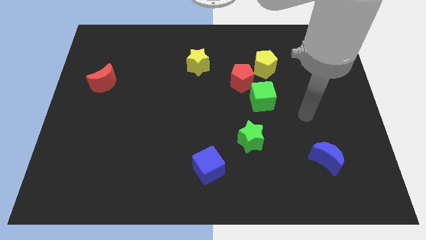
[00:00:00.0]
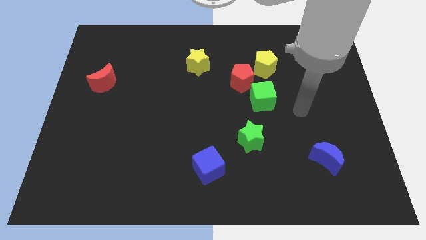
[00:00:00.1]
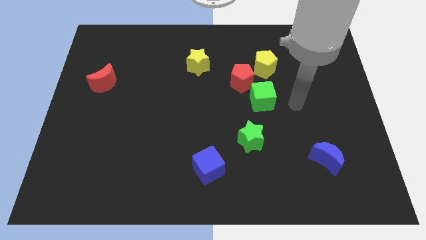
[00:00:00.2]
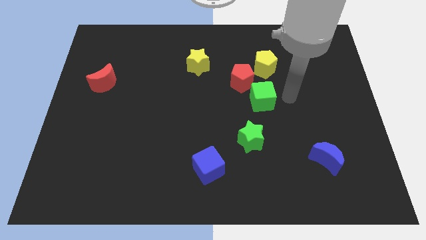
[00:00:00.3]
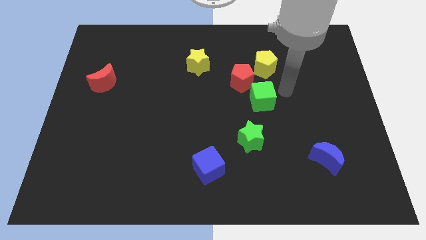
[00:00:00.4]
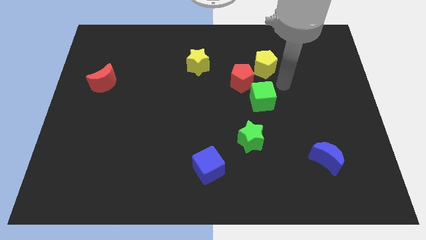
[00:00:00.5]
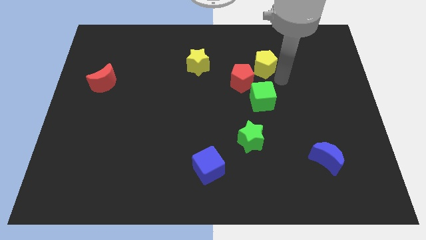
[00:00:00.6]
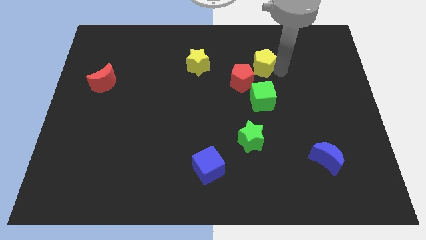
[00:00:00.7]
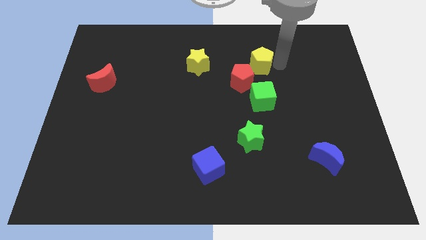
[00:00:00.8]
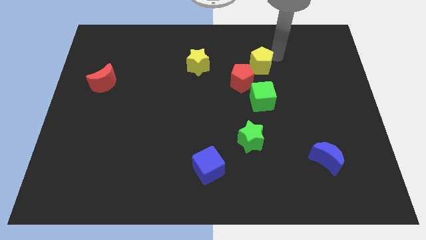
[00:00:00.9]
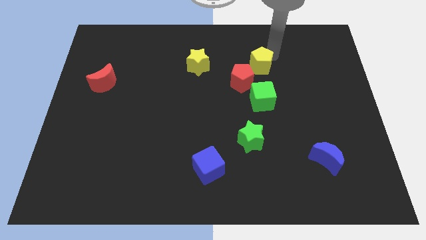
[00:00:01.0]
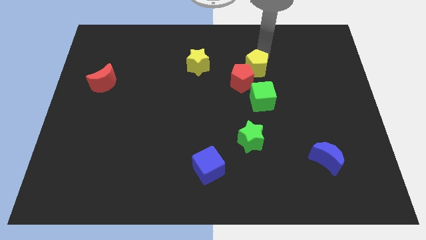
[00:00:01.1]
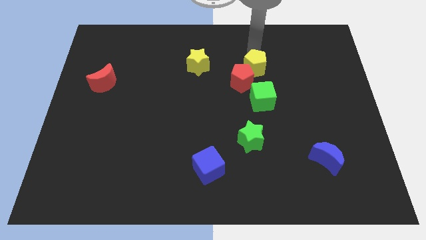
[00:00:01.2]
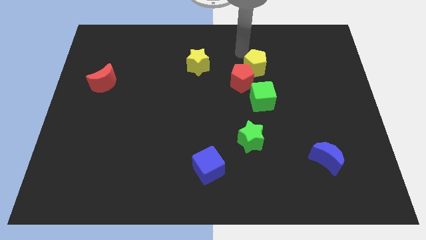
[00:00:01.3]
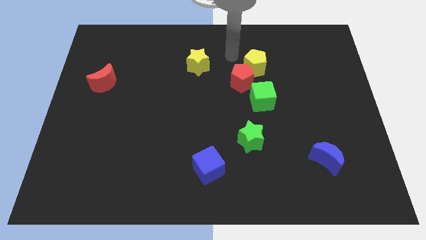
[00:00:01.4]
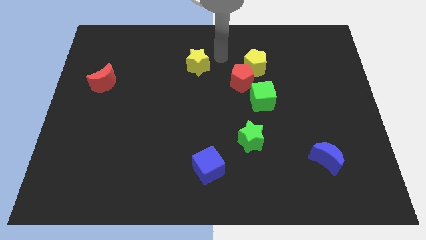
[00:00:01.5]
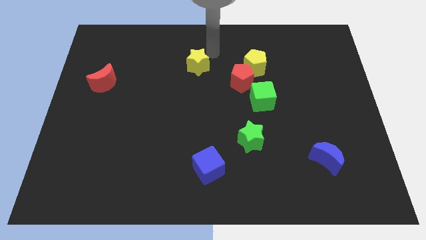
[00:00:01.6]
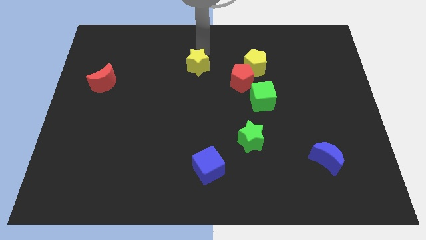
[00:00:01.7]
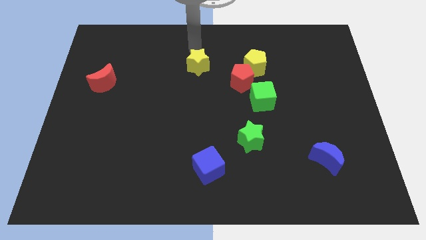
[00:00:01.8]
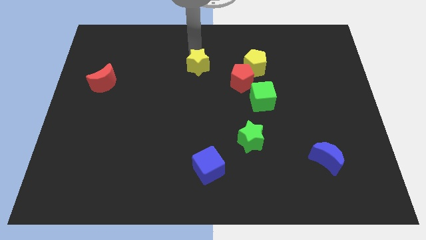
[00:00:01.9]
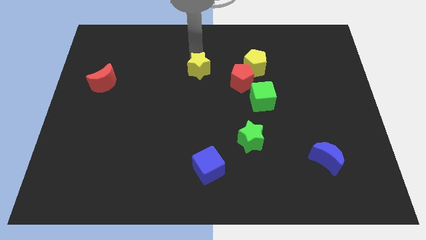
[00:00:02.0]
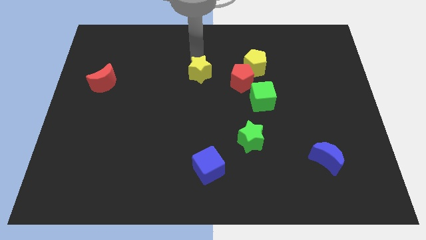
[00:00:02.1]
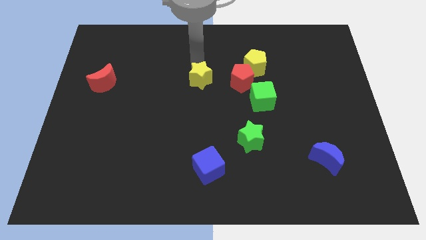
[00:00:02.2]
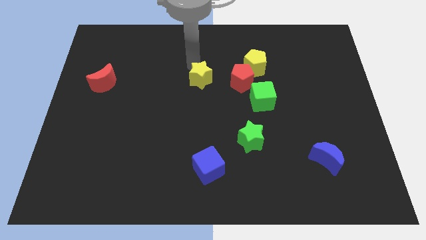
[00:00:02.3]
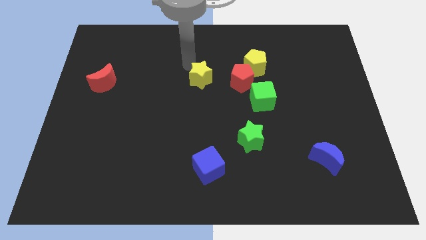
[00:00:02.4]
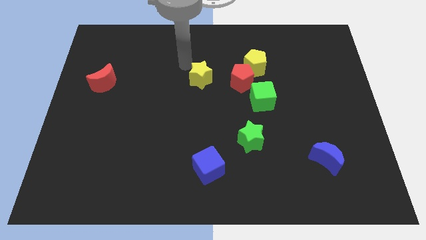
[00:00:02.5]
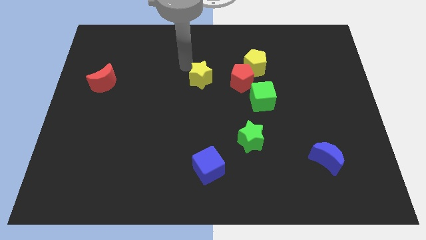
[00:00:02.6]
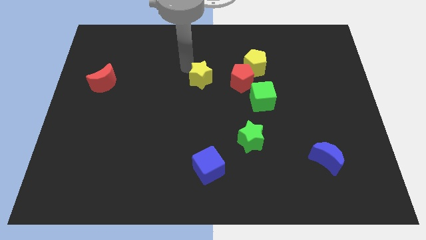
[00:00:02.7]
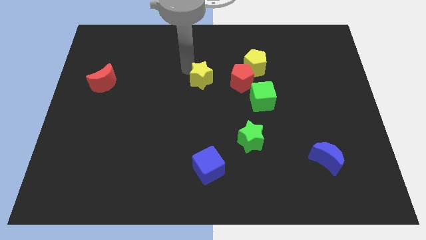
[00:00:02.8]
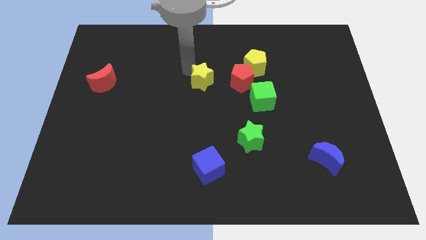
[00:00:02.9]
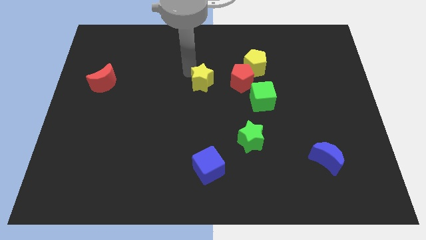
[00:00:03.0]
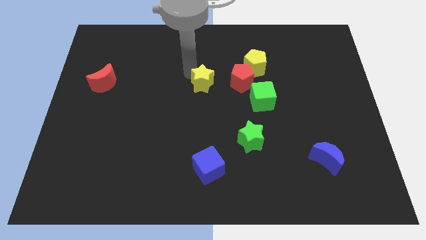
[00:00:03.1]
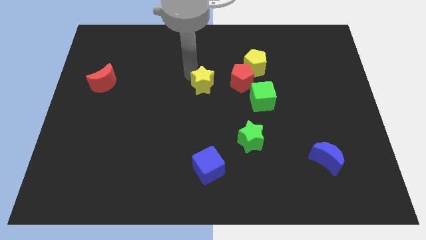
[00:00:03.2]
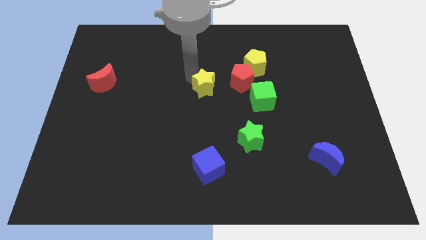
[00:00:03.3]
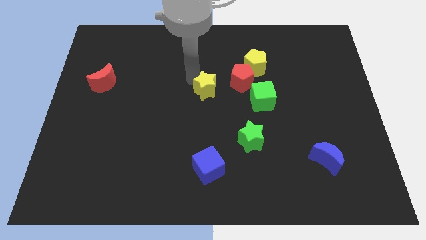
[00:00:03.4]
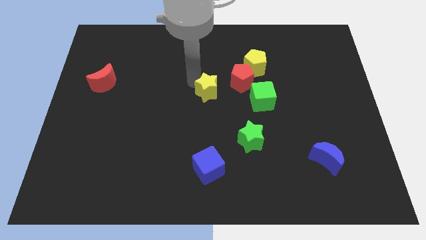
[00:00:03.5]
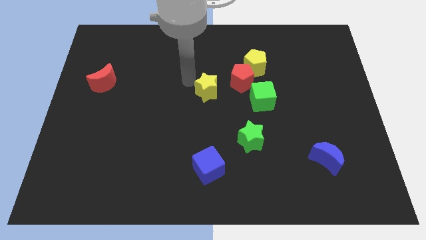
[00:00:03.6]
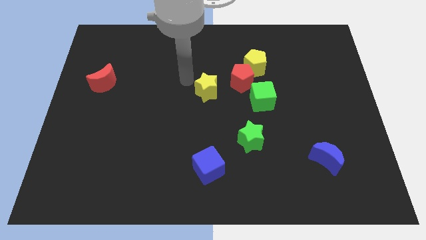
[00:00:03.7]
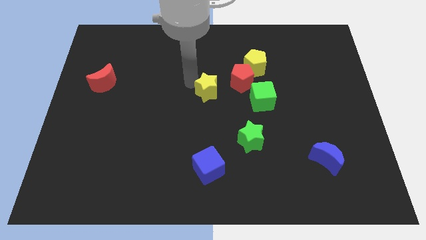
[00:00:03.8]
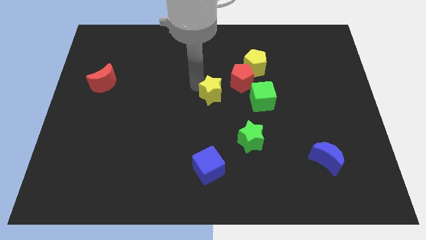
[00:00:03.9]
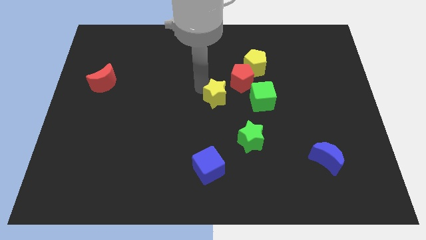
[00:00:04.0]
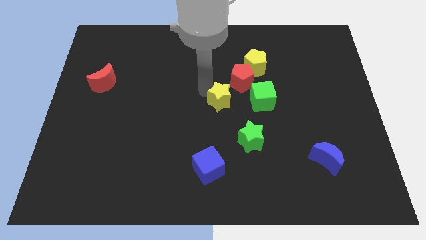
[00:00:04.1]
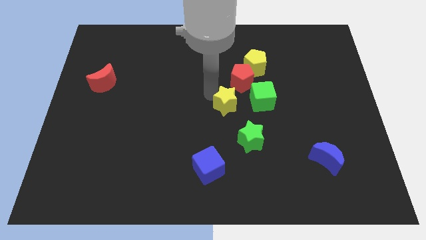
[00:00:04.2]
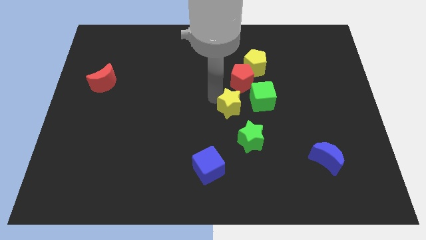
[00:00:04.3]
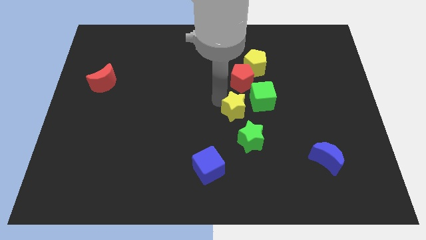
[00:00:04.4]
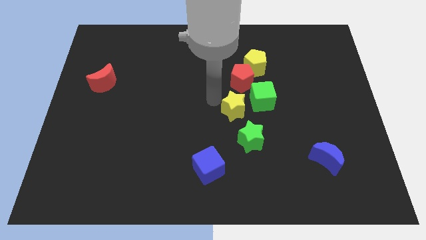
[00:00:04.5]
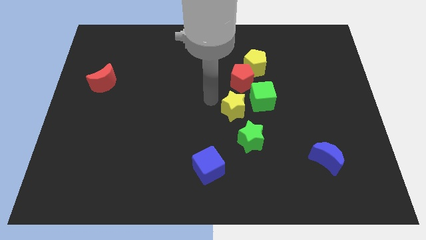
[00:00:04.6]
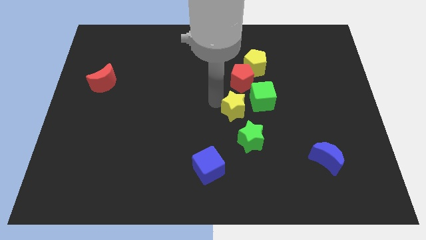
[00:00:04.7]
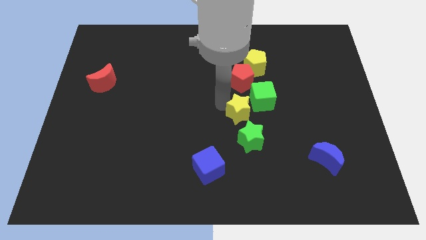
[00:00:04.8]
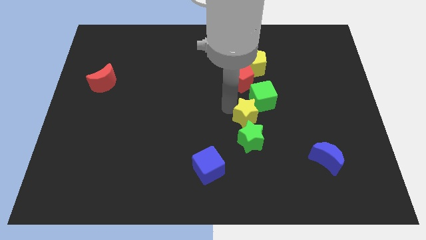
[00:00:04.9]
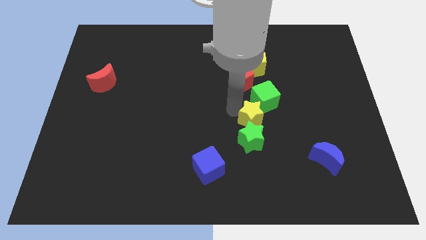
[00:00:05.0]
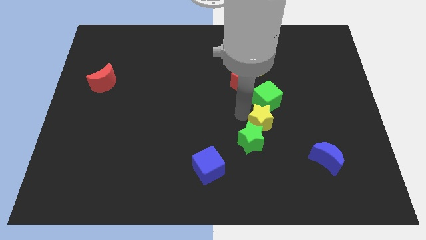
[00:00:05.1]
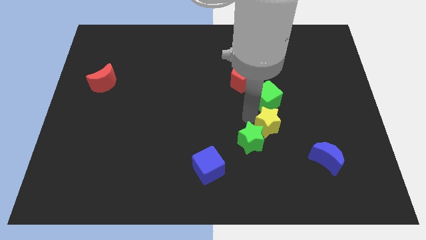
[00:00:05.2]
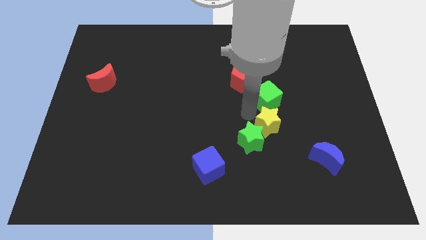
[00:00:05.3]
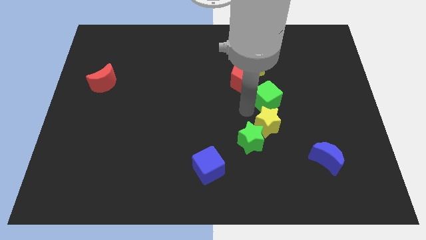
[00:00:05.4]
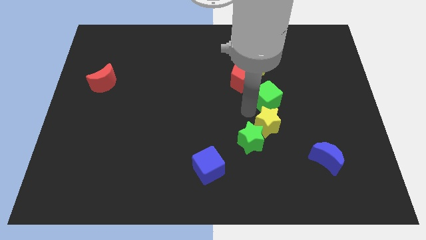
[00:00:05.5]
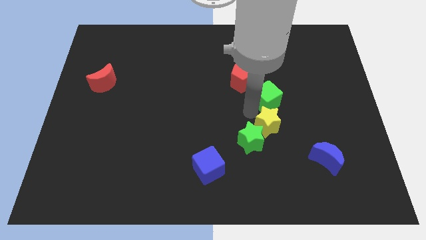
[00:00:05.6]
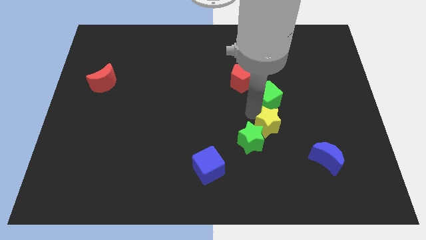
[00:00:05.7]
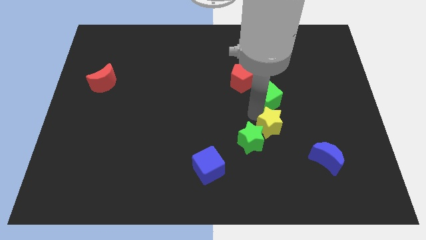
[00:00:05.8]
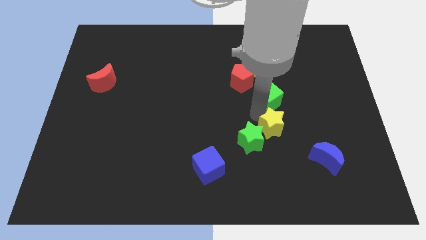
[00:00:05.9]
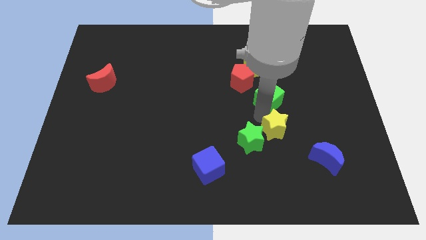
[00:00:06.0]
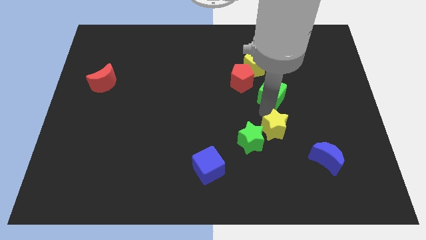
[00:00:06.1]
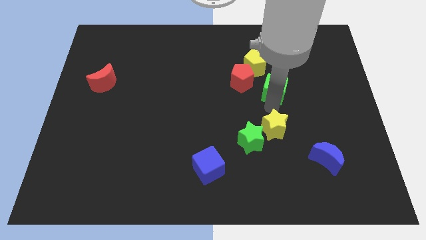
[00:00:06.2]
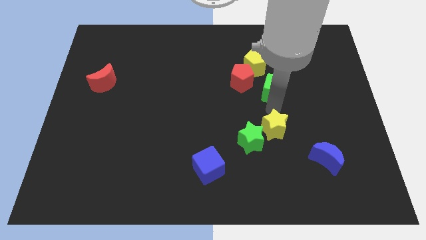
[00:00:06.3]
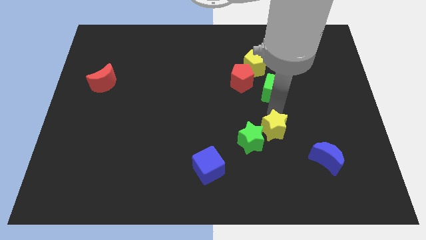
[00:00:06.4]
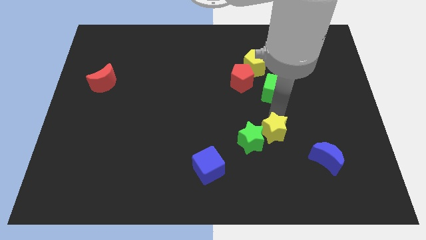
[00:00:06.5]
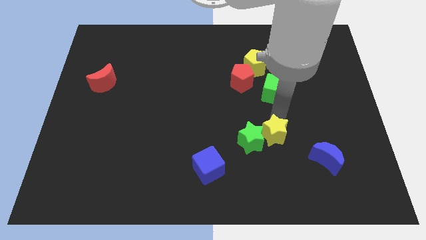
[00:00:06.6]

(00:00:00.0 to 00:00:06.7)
push the yellow star diagonally down and to the right of the green star

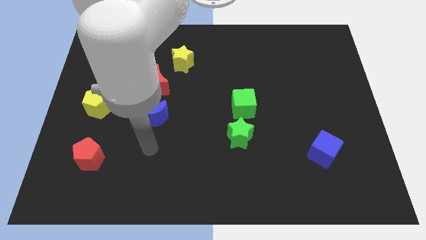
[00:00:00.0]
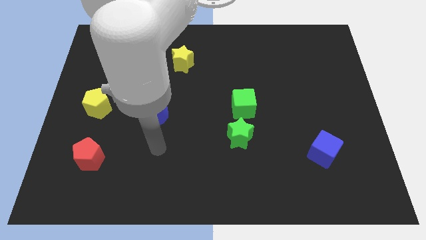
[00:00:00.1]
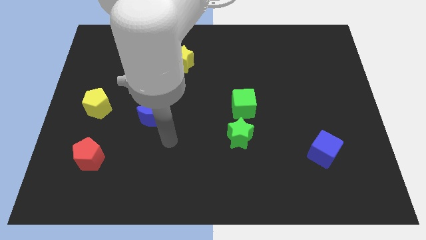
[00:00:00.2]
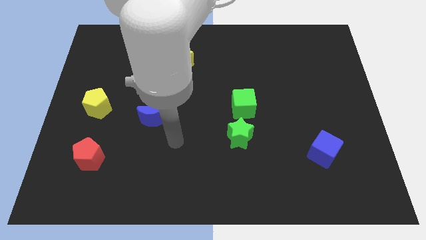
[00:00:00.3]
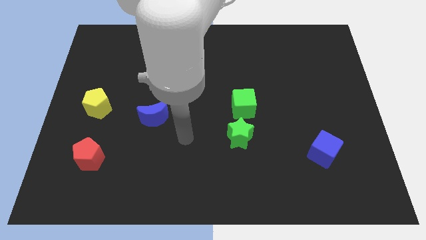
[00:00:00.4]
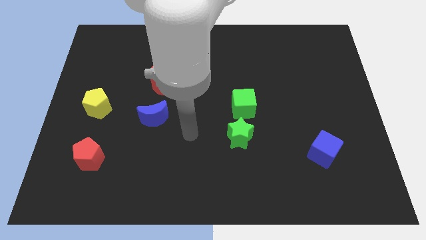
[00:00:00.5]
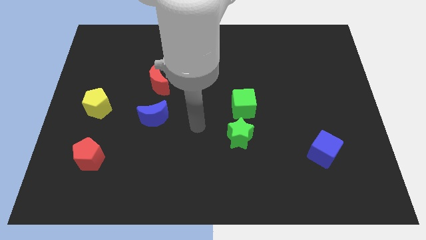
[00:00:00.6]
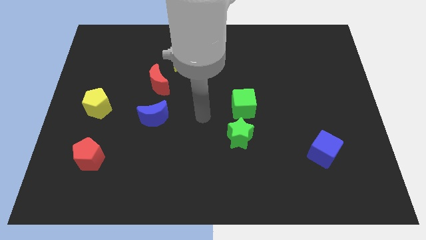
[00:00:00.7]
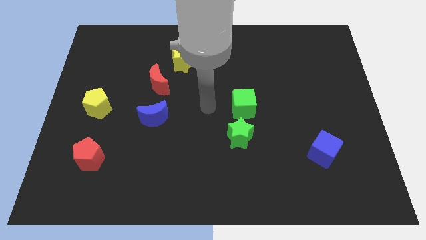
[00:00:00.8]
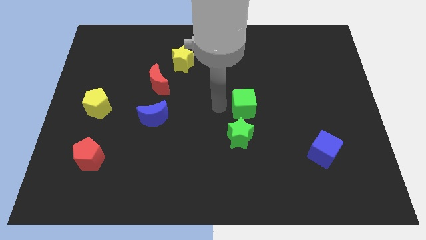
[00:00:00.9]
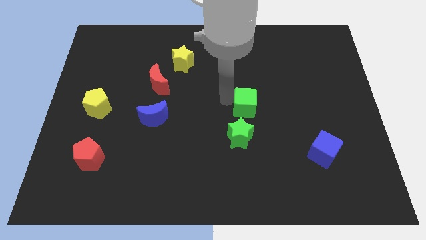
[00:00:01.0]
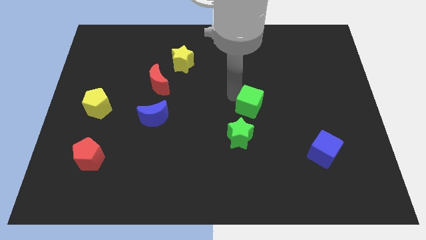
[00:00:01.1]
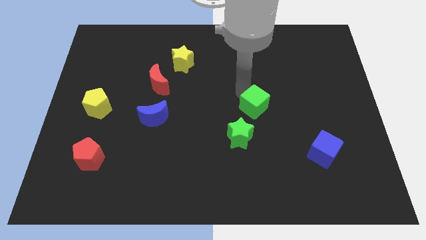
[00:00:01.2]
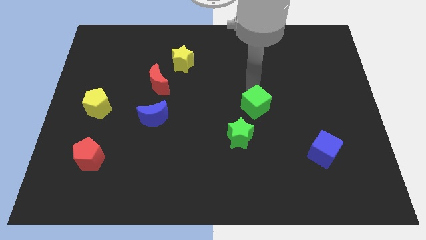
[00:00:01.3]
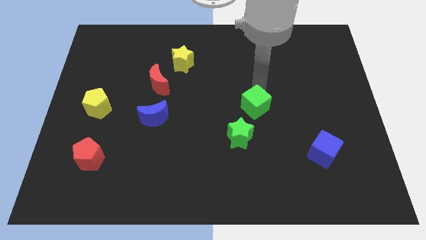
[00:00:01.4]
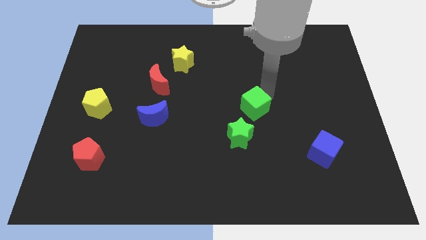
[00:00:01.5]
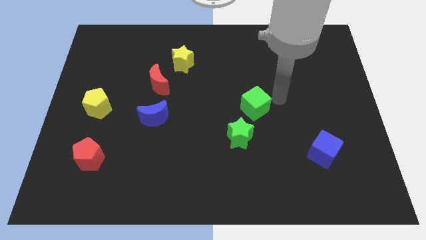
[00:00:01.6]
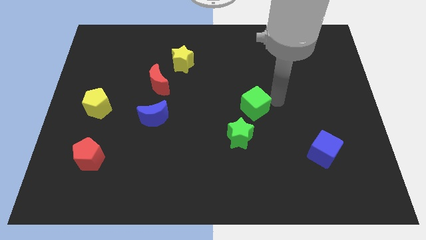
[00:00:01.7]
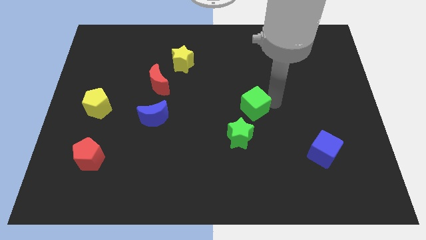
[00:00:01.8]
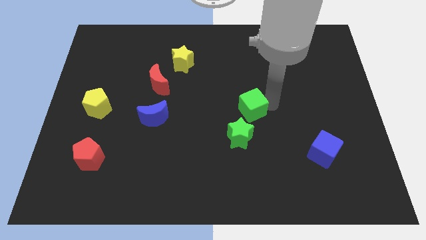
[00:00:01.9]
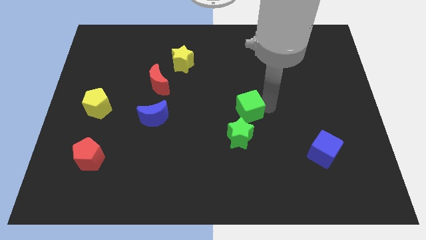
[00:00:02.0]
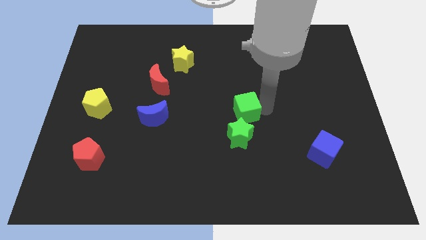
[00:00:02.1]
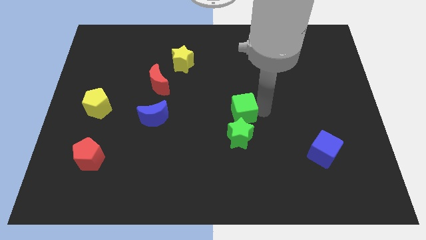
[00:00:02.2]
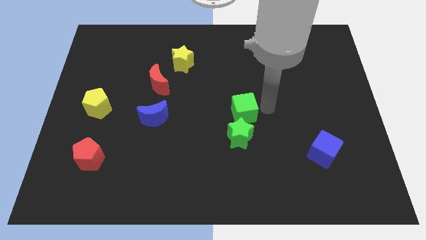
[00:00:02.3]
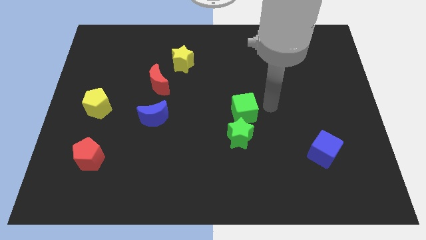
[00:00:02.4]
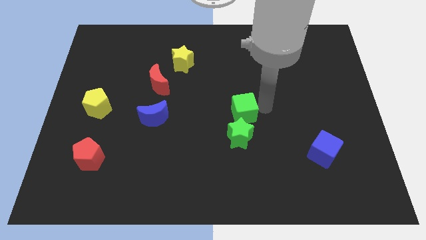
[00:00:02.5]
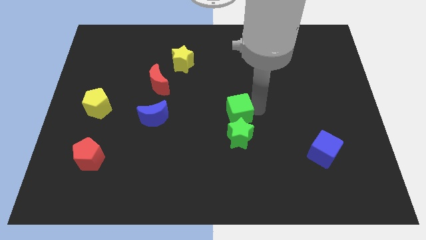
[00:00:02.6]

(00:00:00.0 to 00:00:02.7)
push the green cube to the top left of the green star
